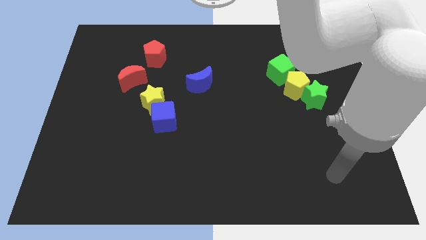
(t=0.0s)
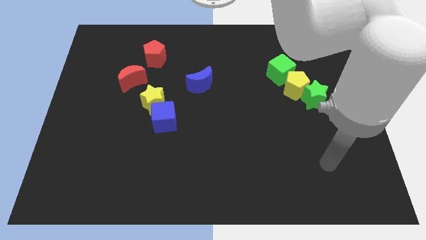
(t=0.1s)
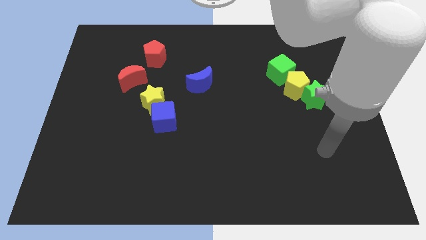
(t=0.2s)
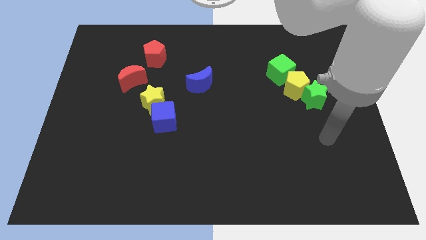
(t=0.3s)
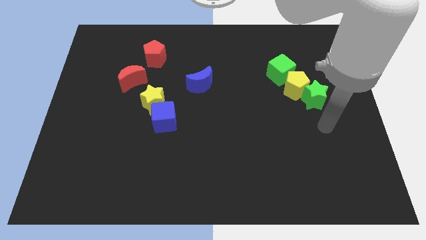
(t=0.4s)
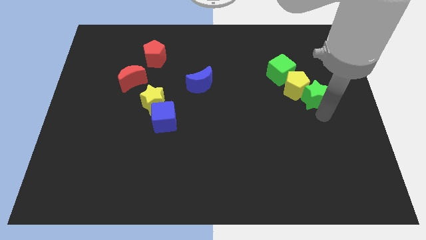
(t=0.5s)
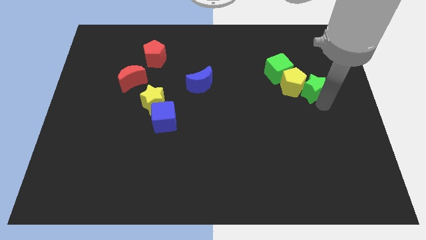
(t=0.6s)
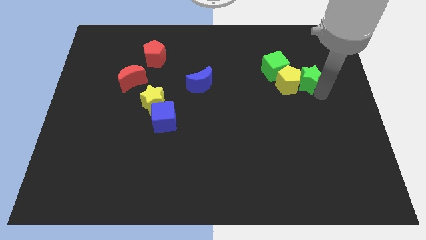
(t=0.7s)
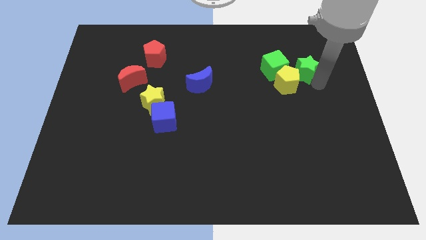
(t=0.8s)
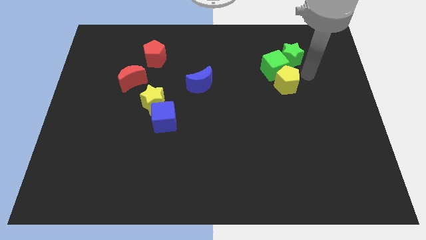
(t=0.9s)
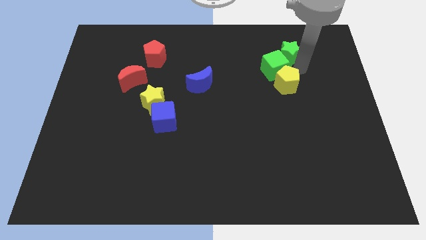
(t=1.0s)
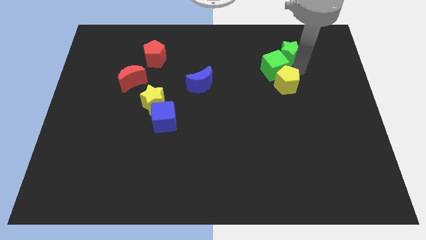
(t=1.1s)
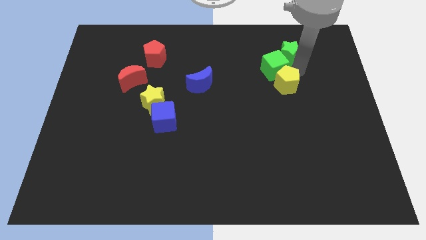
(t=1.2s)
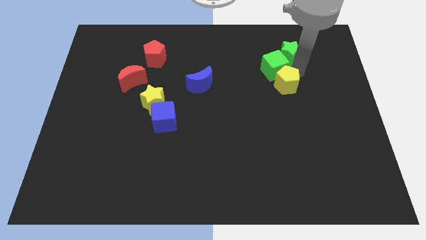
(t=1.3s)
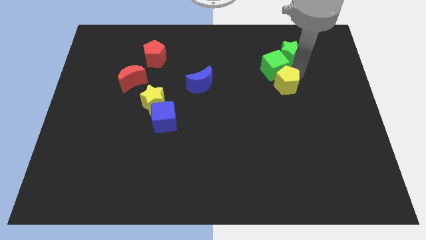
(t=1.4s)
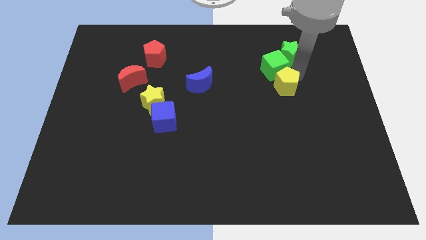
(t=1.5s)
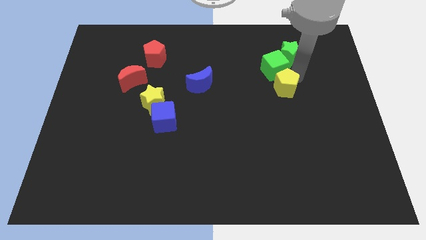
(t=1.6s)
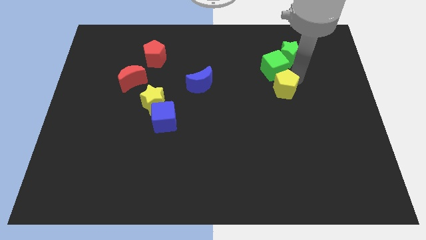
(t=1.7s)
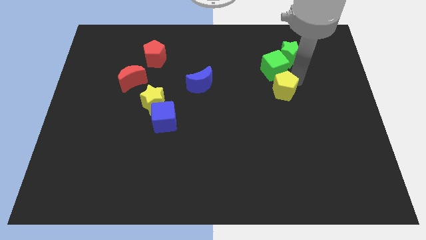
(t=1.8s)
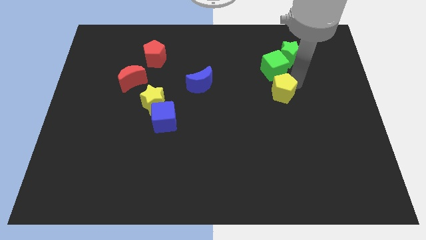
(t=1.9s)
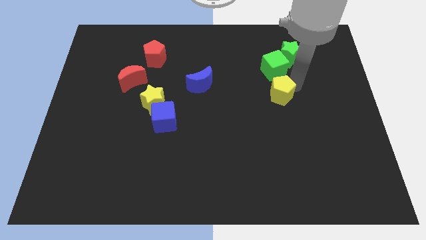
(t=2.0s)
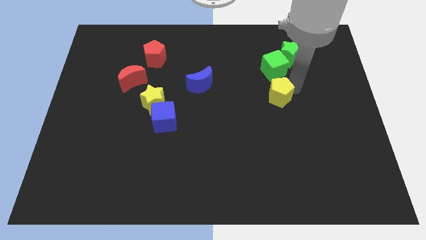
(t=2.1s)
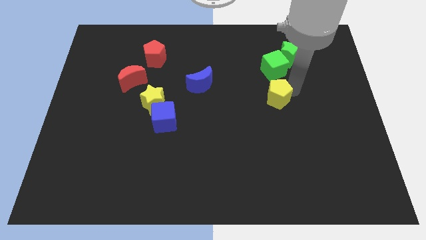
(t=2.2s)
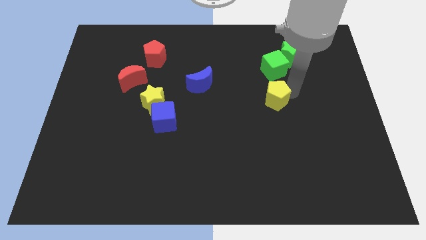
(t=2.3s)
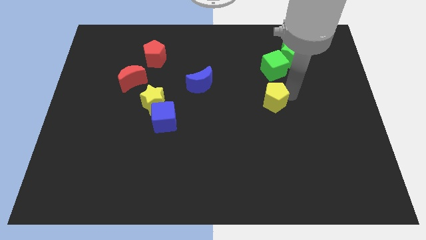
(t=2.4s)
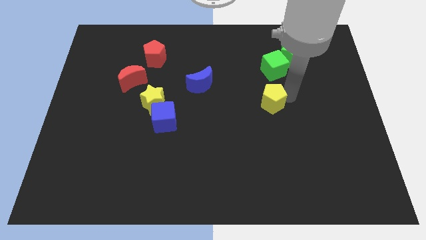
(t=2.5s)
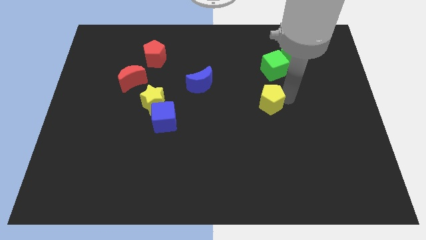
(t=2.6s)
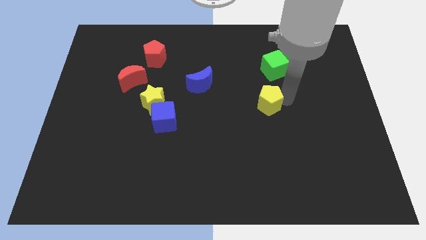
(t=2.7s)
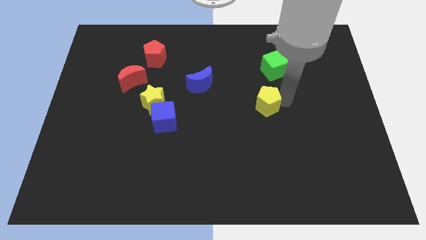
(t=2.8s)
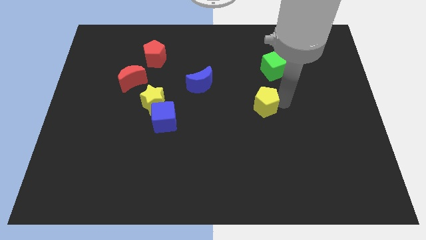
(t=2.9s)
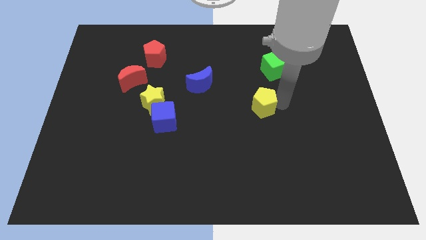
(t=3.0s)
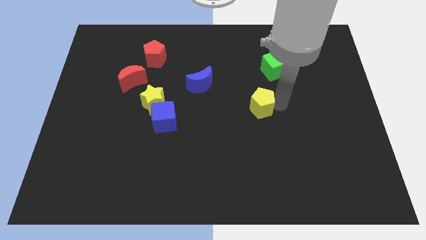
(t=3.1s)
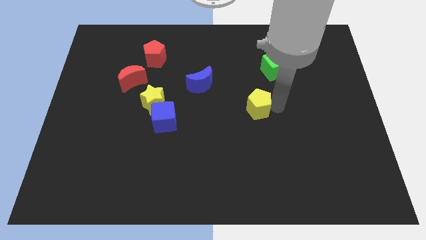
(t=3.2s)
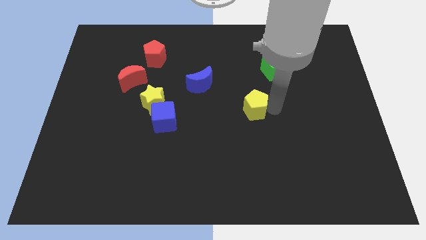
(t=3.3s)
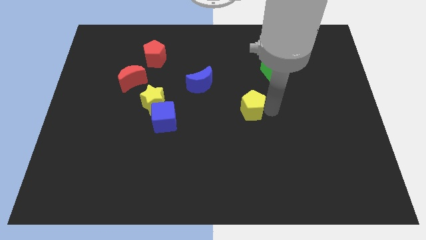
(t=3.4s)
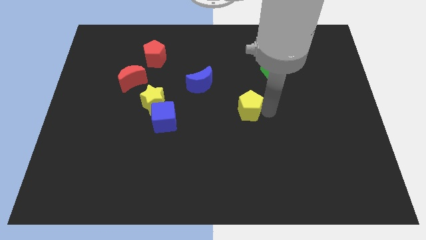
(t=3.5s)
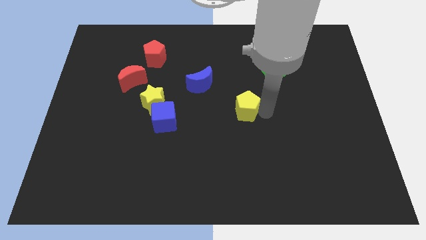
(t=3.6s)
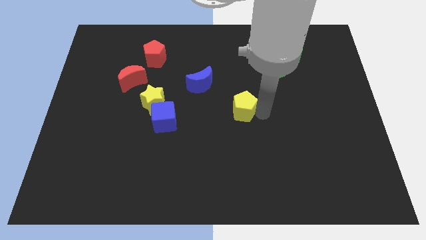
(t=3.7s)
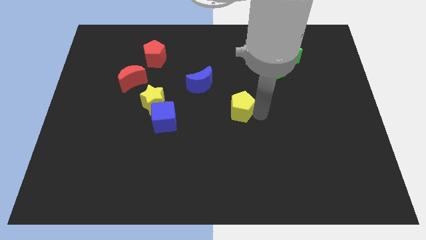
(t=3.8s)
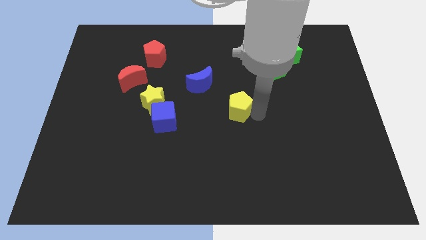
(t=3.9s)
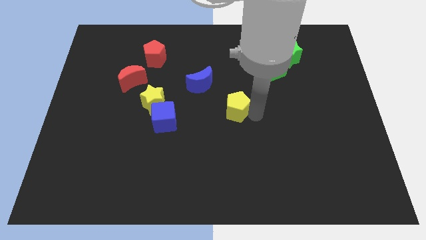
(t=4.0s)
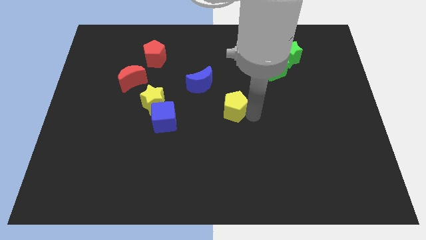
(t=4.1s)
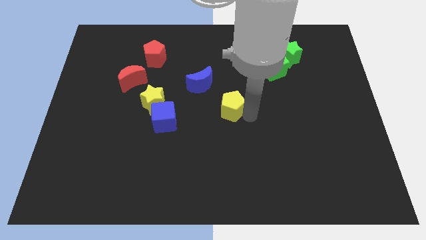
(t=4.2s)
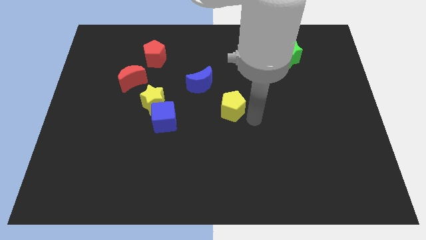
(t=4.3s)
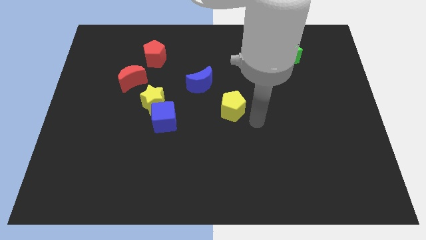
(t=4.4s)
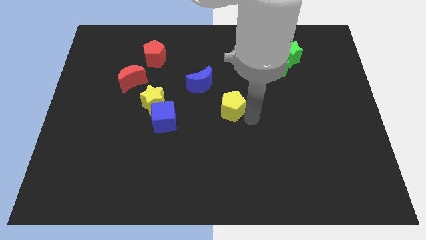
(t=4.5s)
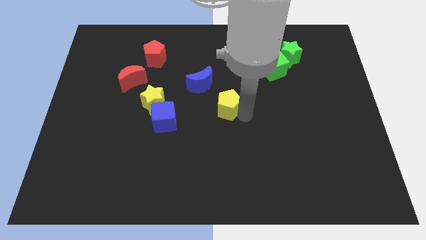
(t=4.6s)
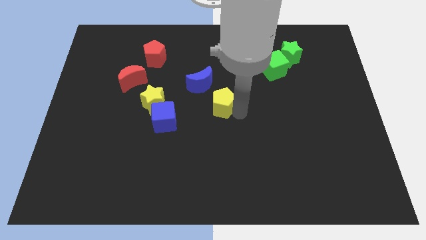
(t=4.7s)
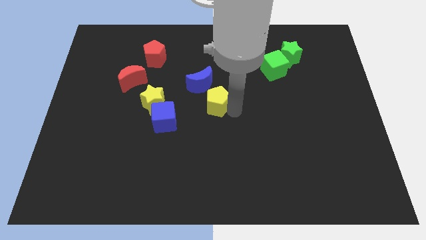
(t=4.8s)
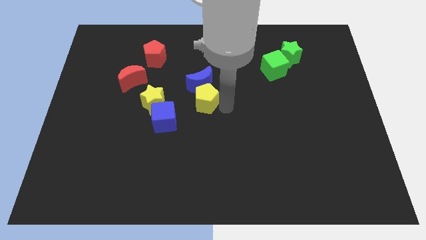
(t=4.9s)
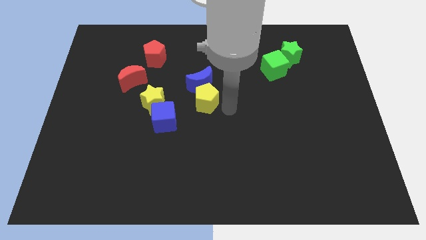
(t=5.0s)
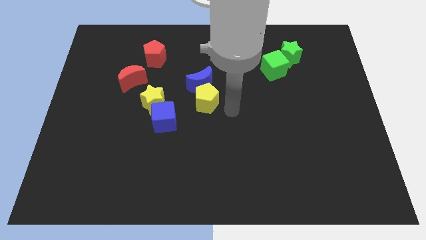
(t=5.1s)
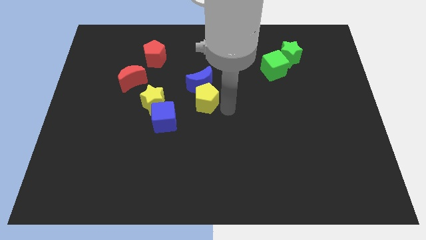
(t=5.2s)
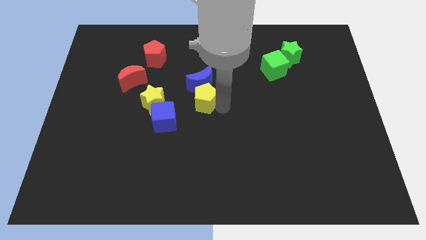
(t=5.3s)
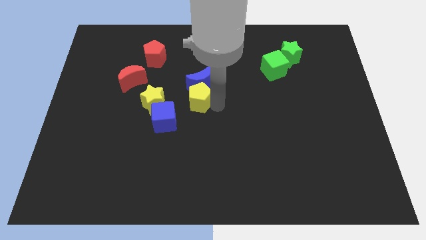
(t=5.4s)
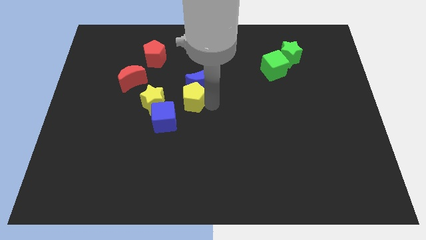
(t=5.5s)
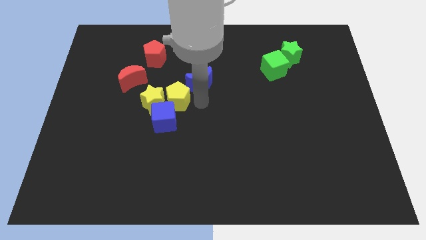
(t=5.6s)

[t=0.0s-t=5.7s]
put the yellow pentagon to the left side of the blue moon

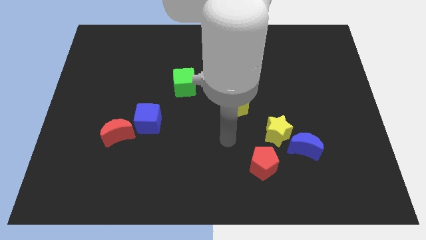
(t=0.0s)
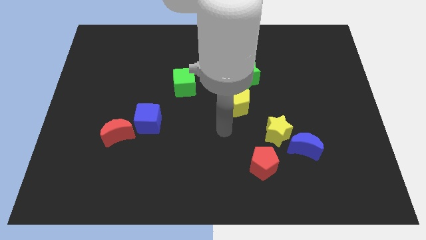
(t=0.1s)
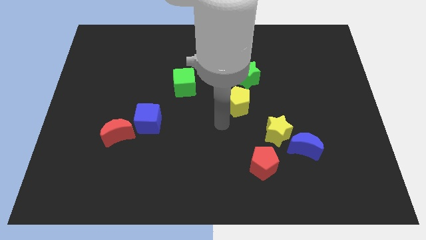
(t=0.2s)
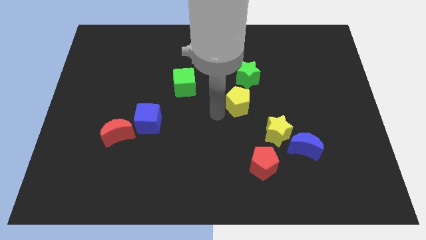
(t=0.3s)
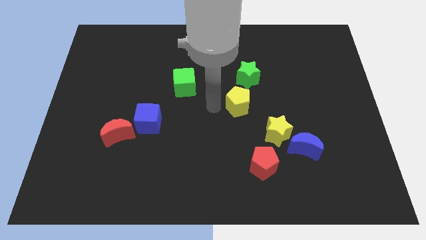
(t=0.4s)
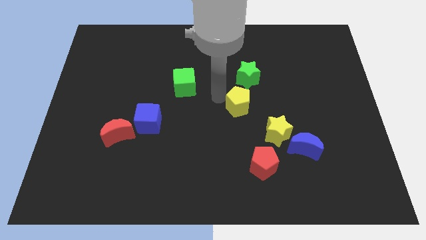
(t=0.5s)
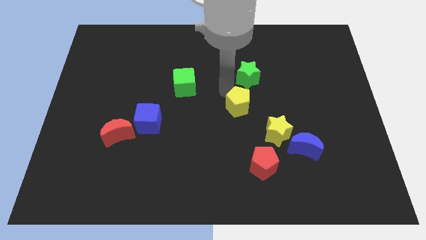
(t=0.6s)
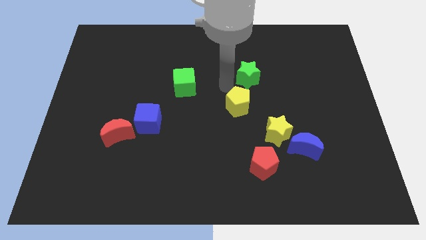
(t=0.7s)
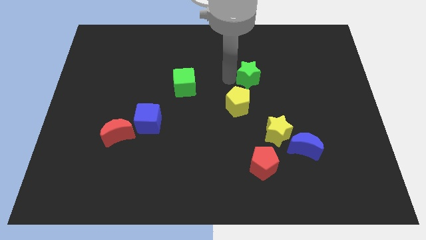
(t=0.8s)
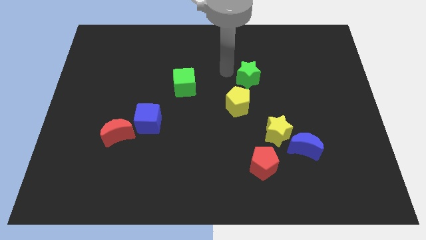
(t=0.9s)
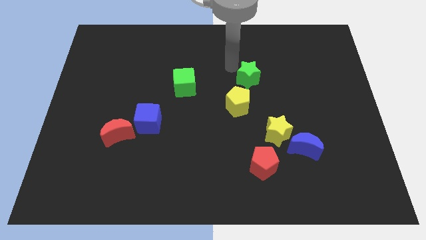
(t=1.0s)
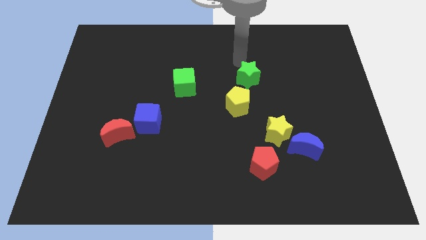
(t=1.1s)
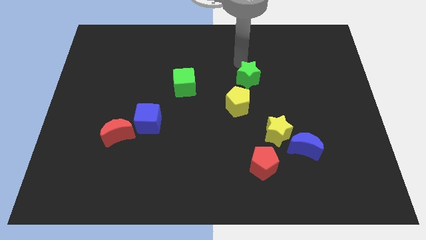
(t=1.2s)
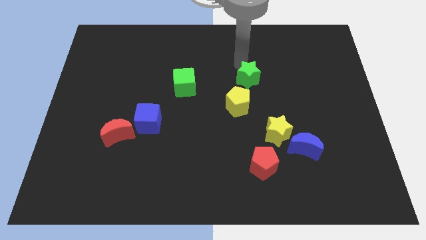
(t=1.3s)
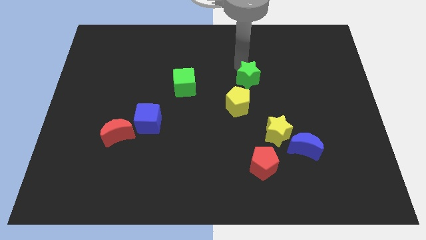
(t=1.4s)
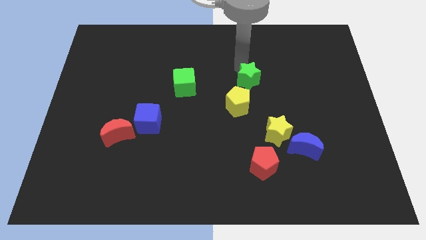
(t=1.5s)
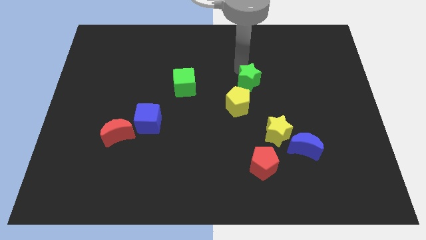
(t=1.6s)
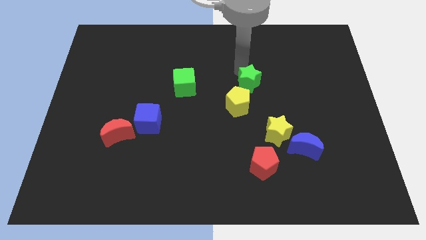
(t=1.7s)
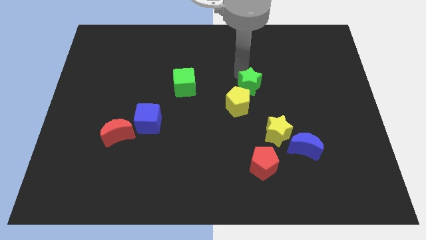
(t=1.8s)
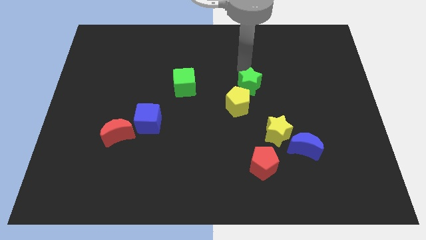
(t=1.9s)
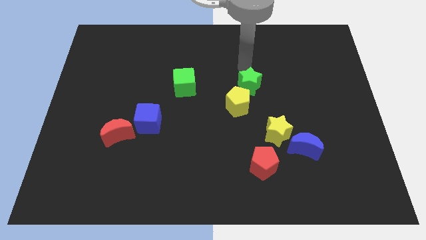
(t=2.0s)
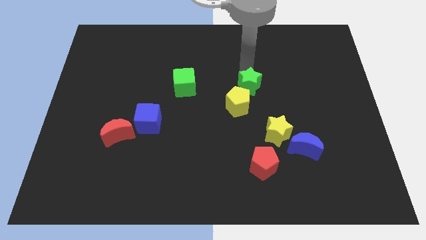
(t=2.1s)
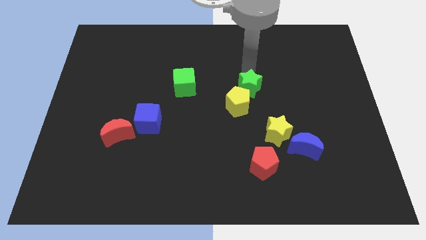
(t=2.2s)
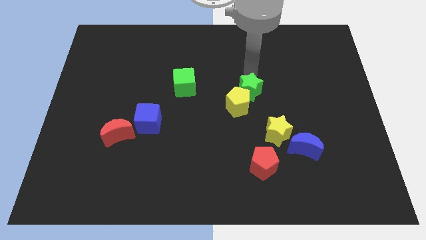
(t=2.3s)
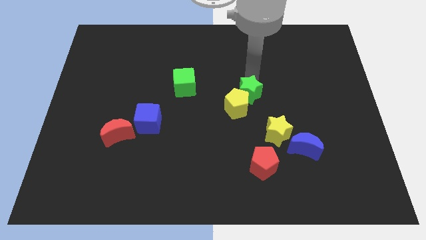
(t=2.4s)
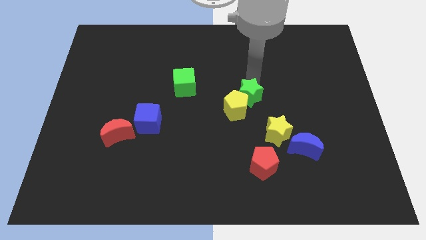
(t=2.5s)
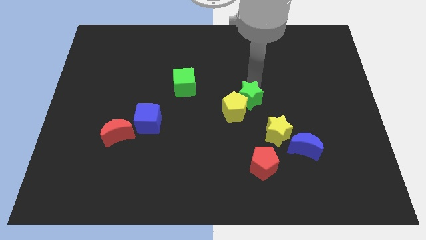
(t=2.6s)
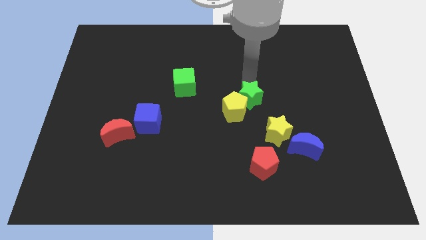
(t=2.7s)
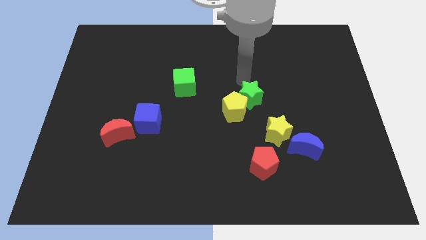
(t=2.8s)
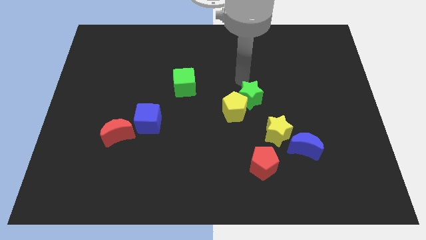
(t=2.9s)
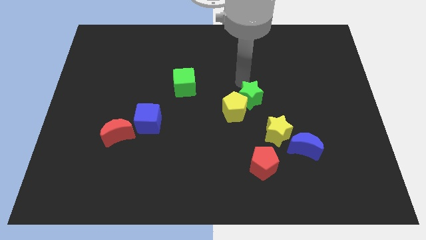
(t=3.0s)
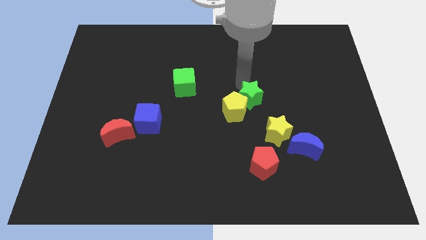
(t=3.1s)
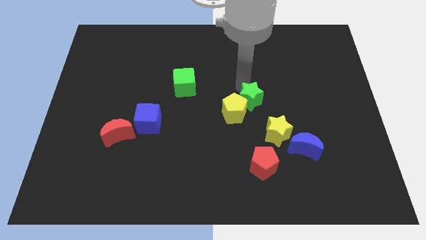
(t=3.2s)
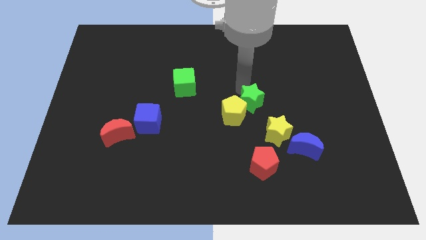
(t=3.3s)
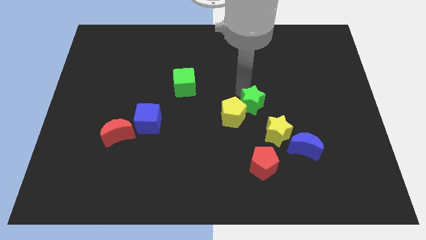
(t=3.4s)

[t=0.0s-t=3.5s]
push the green star to the top side of the red pentagon
